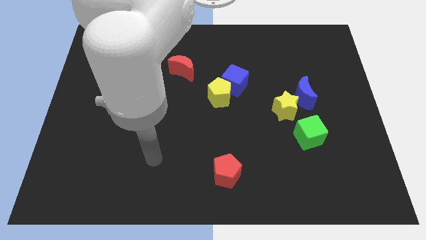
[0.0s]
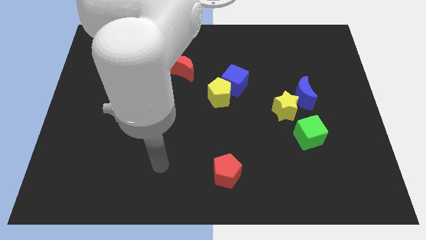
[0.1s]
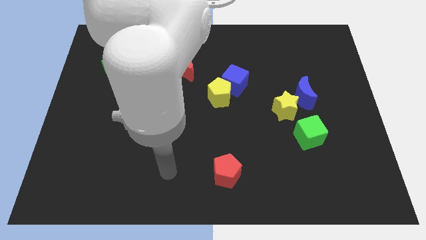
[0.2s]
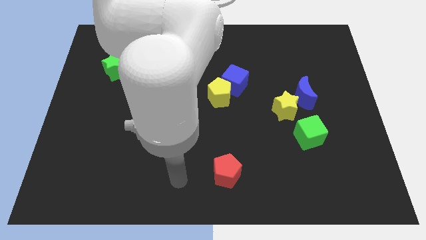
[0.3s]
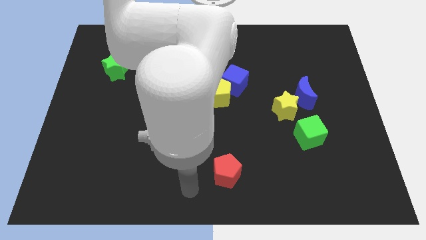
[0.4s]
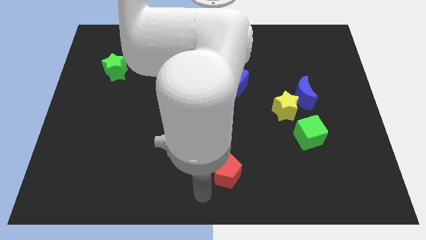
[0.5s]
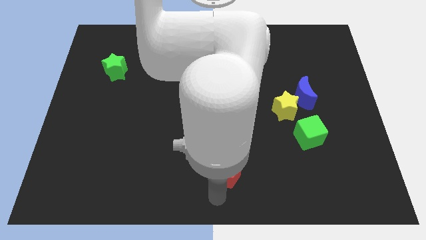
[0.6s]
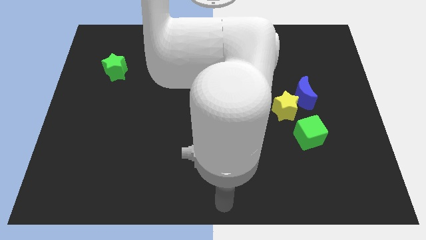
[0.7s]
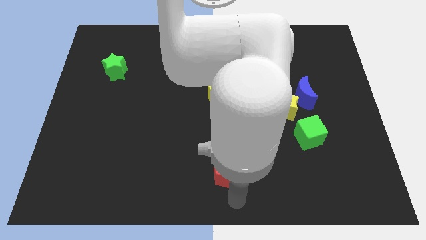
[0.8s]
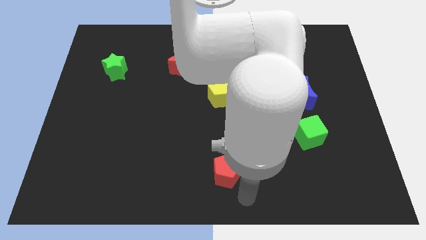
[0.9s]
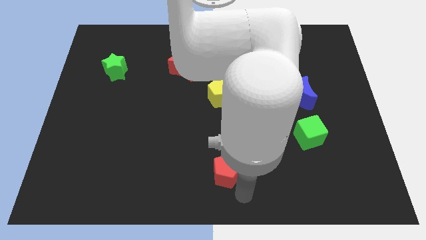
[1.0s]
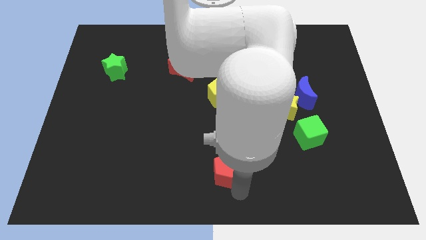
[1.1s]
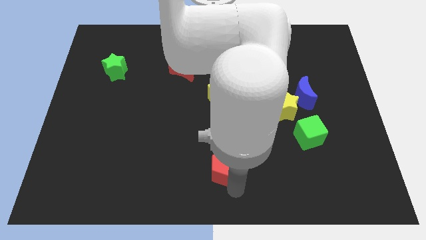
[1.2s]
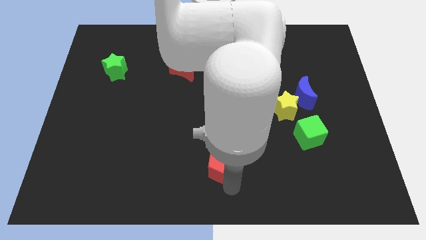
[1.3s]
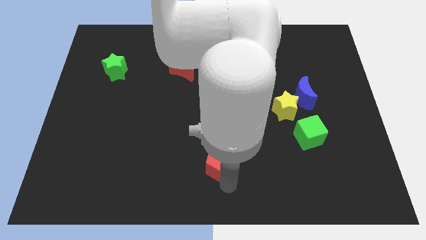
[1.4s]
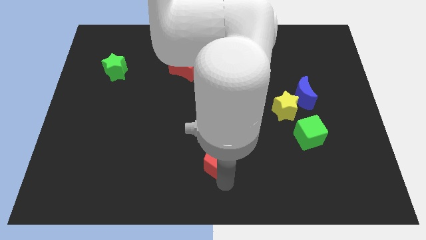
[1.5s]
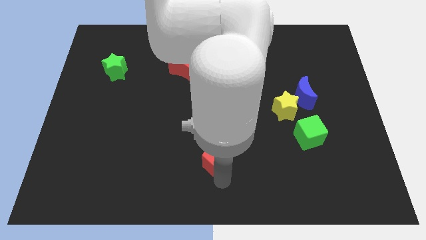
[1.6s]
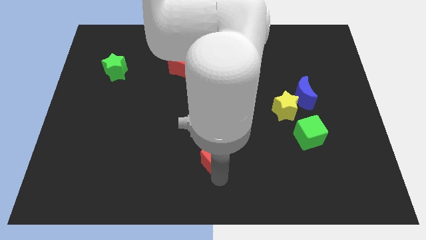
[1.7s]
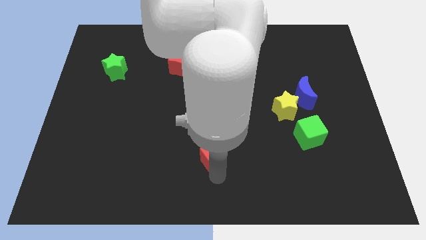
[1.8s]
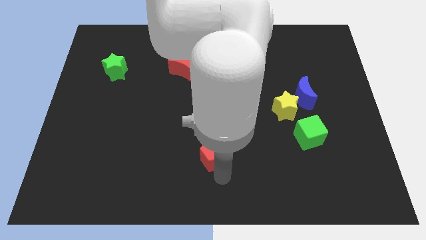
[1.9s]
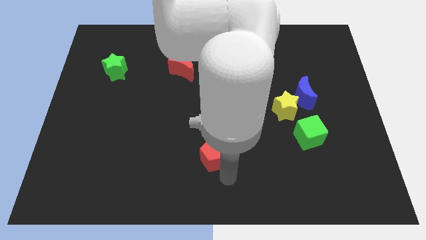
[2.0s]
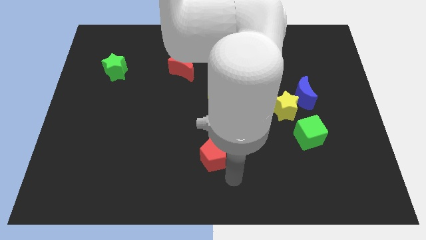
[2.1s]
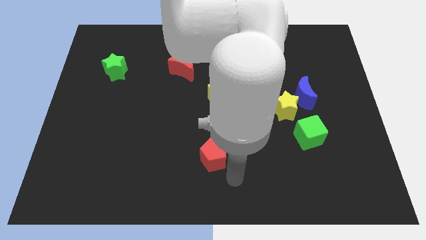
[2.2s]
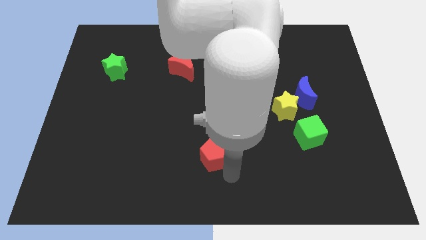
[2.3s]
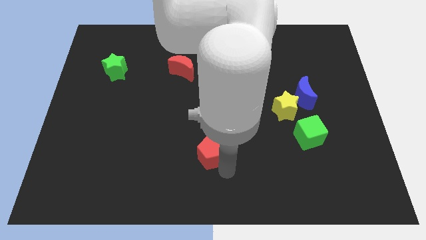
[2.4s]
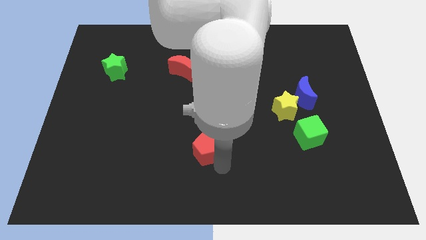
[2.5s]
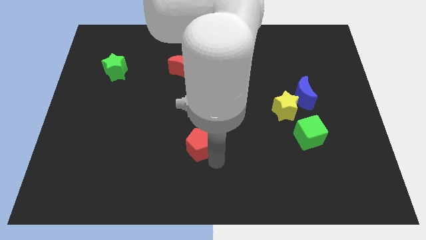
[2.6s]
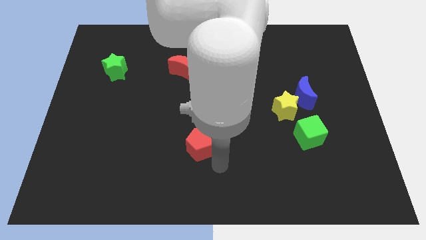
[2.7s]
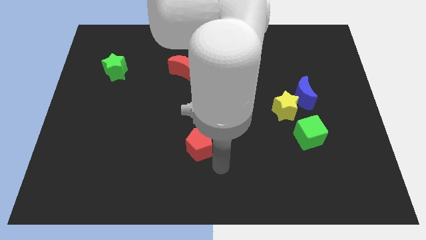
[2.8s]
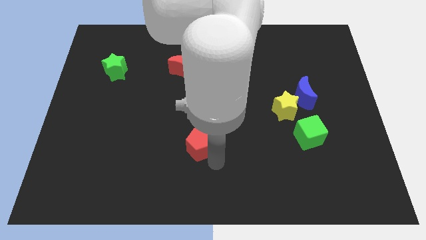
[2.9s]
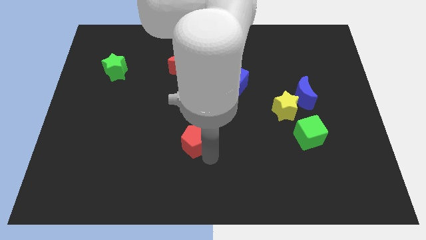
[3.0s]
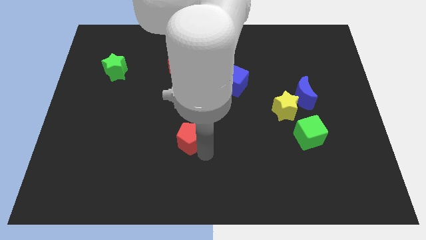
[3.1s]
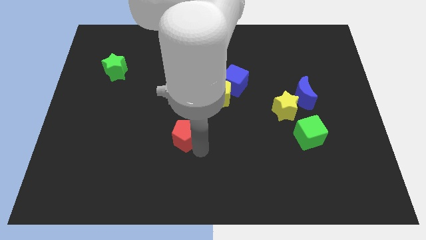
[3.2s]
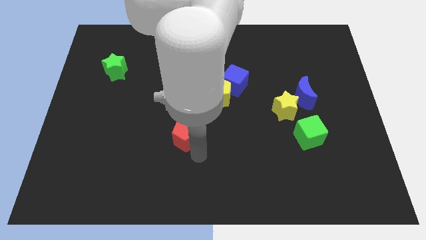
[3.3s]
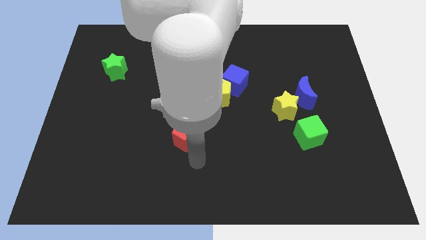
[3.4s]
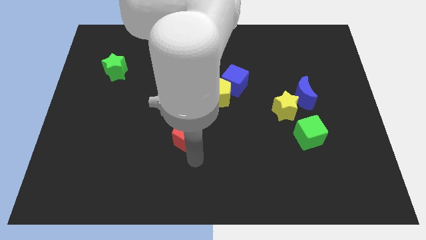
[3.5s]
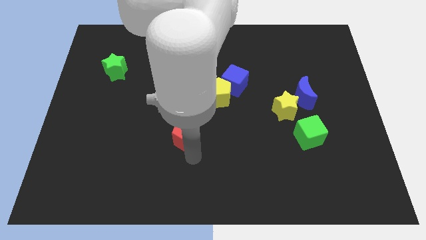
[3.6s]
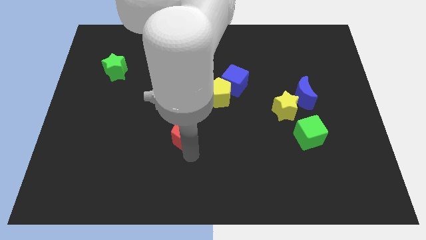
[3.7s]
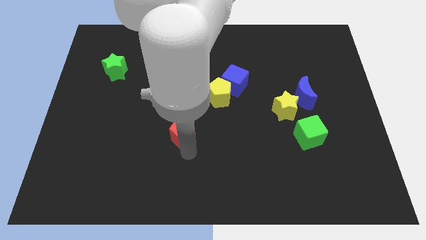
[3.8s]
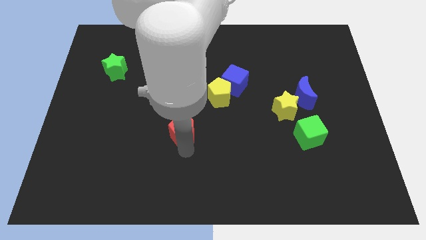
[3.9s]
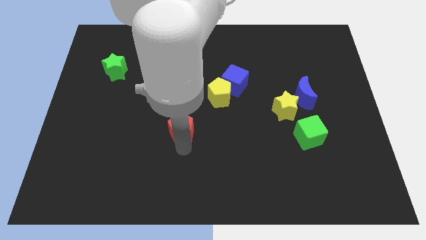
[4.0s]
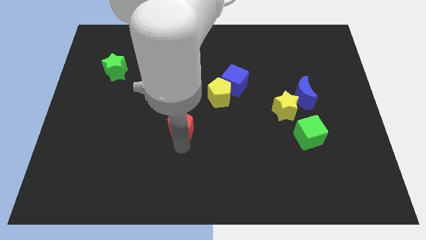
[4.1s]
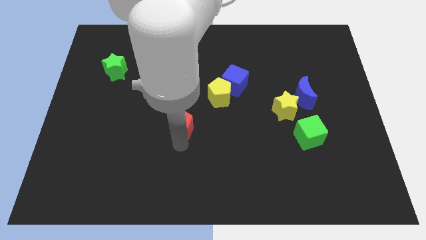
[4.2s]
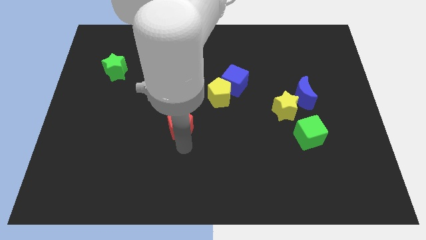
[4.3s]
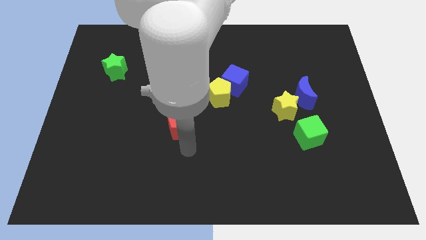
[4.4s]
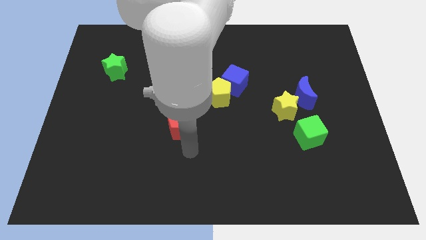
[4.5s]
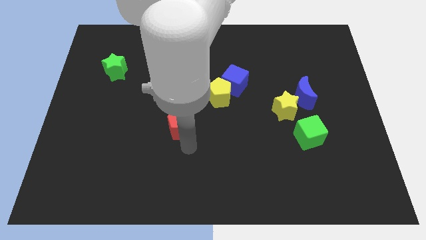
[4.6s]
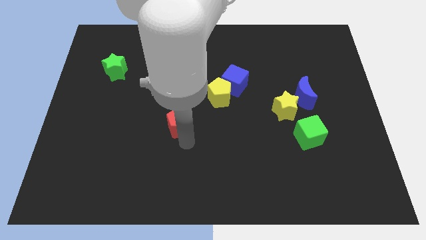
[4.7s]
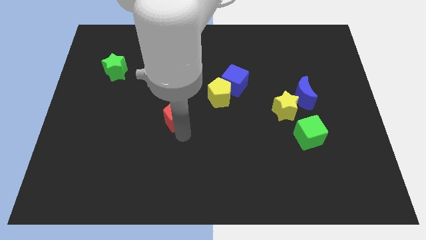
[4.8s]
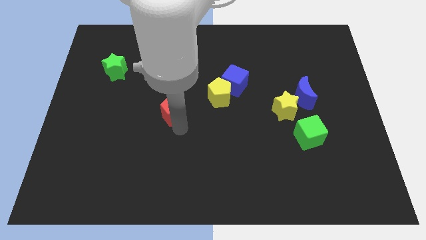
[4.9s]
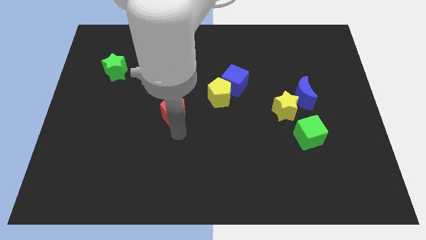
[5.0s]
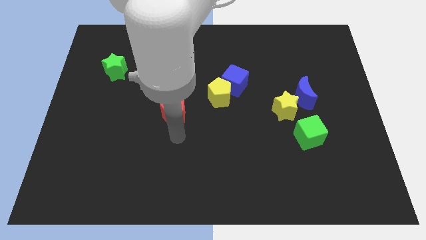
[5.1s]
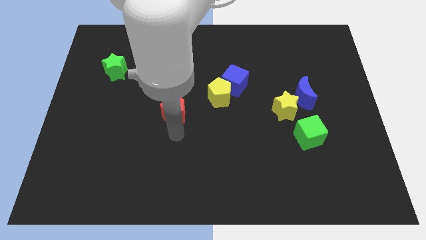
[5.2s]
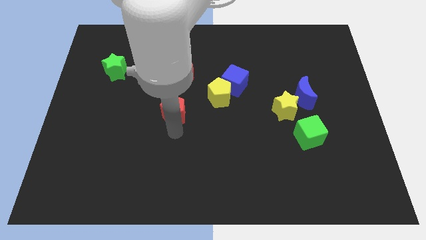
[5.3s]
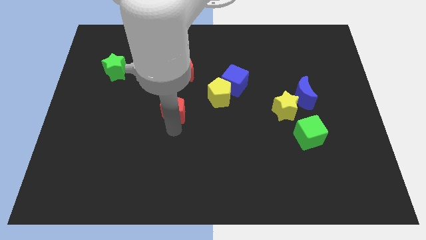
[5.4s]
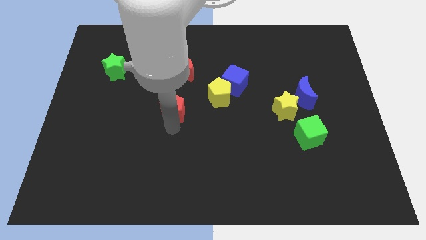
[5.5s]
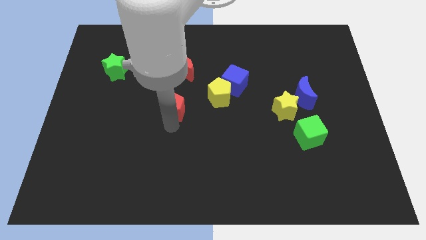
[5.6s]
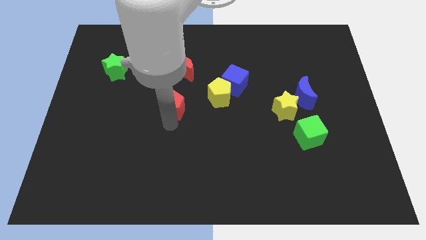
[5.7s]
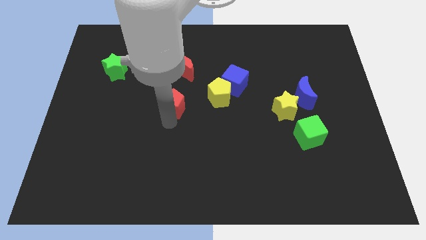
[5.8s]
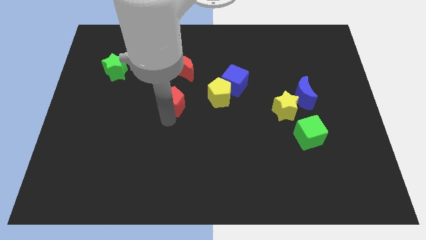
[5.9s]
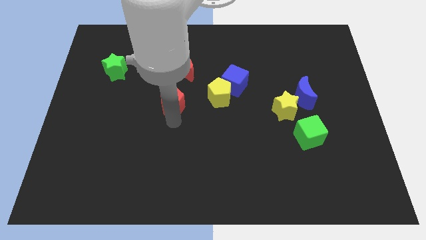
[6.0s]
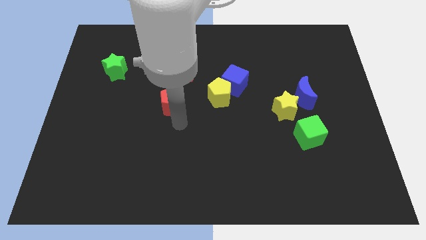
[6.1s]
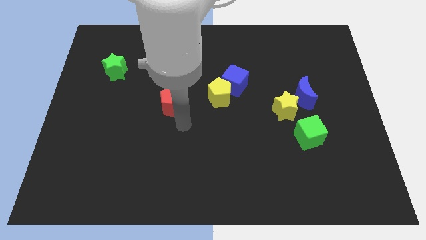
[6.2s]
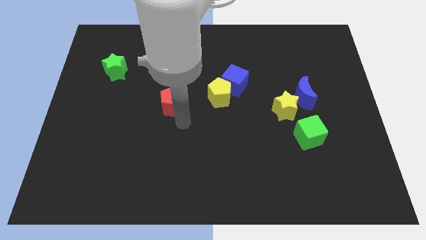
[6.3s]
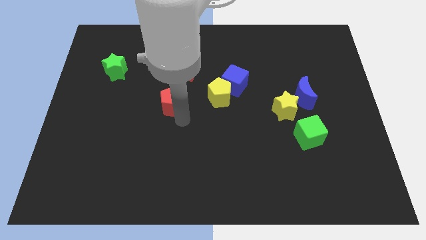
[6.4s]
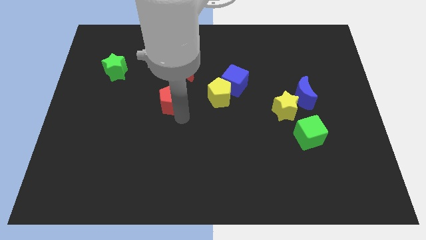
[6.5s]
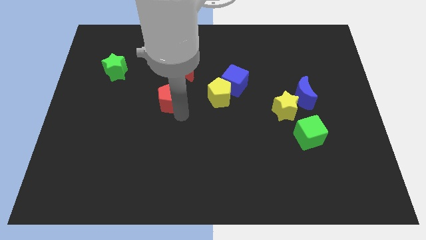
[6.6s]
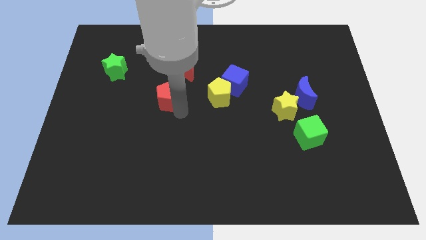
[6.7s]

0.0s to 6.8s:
slide the red pentagon diagonally down and to the left of the red moon
